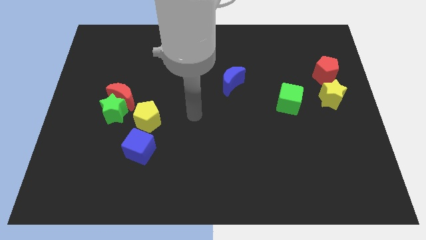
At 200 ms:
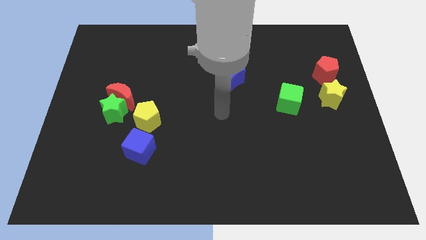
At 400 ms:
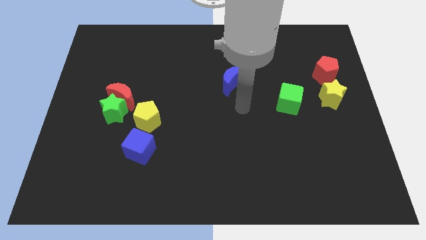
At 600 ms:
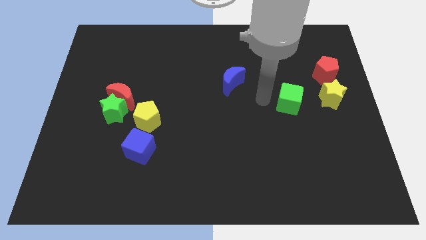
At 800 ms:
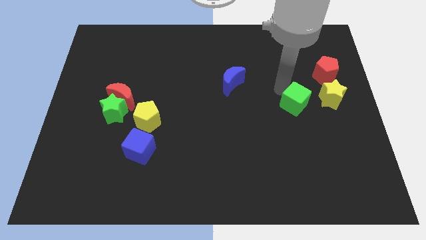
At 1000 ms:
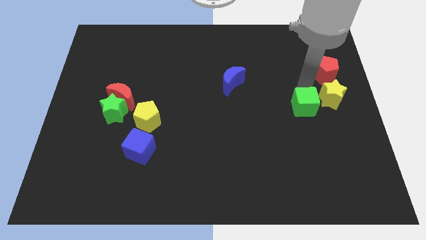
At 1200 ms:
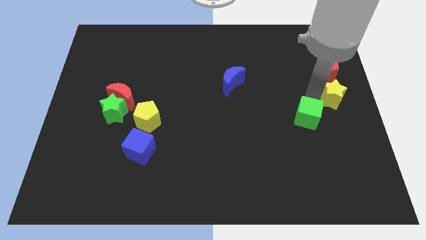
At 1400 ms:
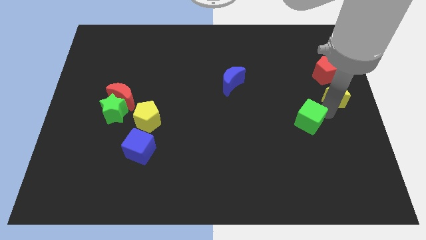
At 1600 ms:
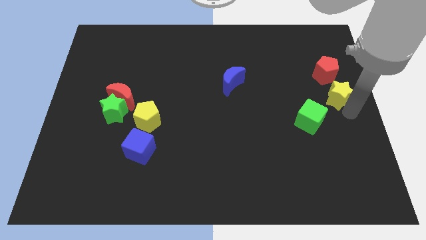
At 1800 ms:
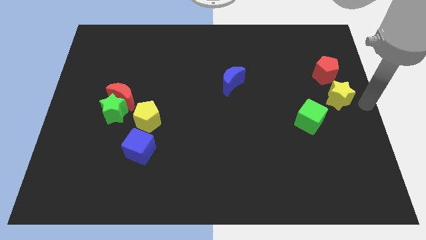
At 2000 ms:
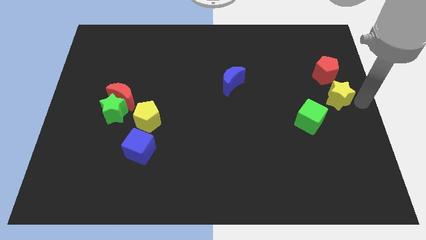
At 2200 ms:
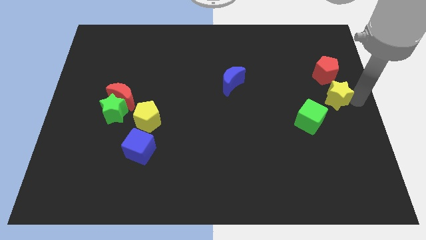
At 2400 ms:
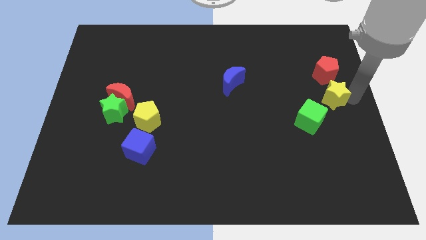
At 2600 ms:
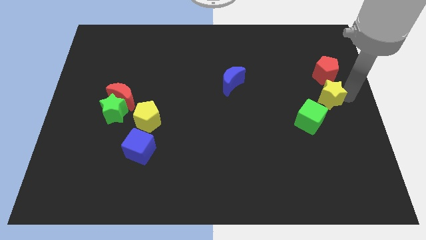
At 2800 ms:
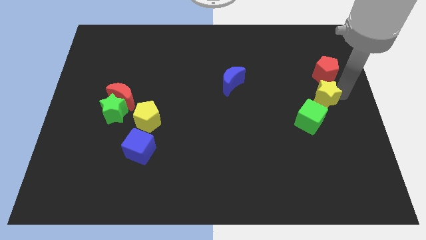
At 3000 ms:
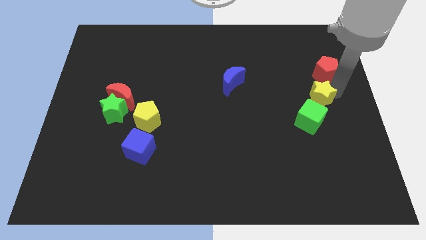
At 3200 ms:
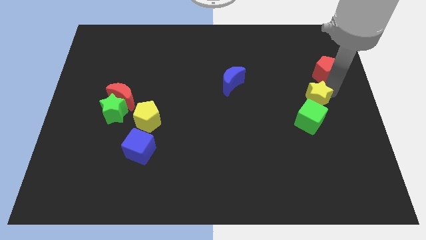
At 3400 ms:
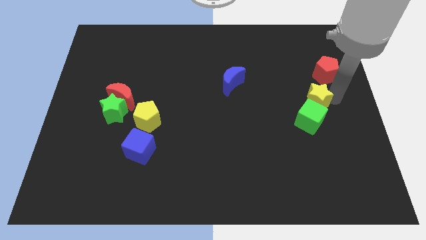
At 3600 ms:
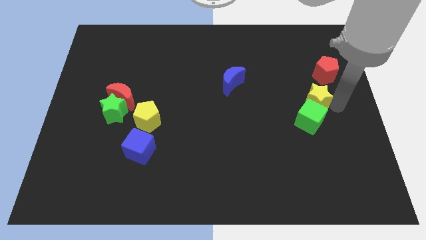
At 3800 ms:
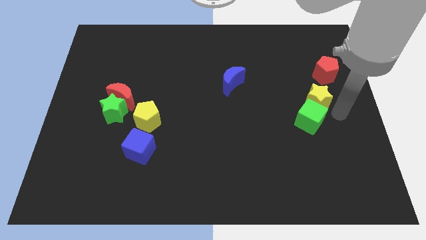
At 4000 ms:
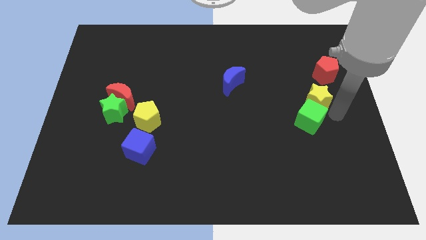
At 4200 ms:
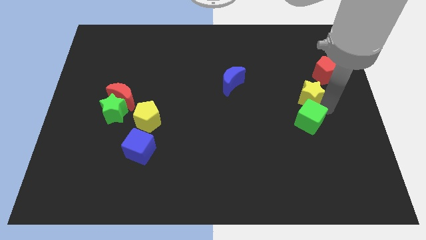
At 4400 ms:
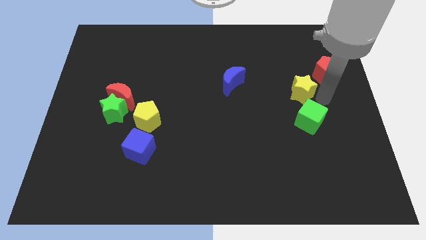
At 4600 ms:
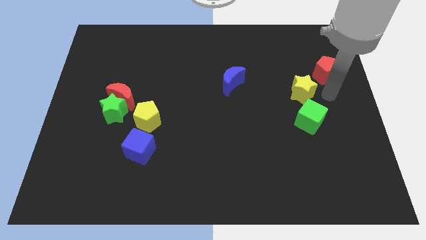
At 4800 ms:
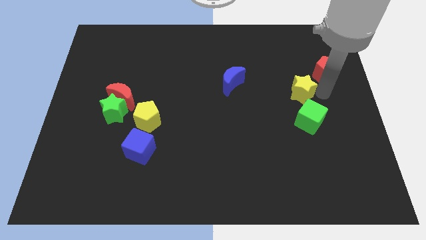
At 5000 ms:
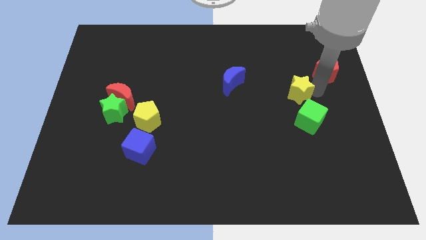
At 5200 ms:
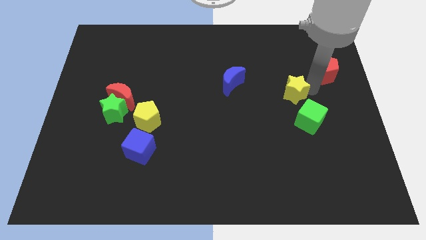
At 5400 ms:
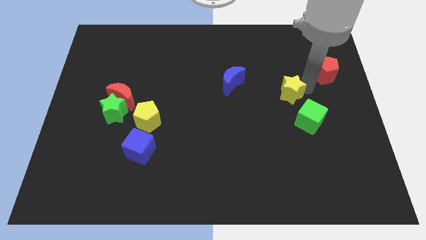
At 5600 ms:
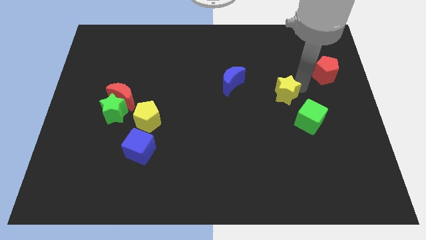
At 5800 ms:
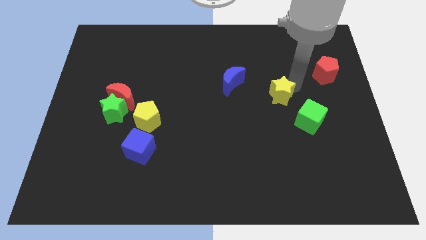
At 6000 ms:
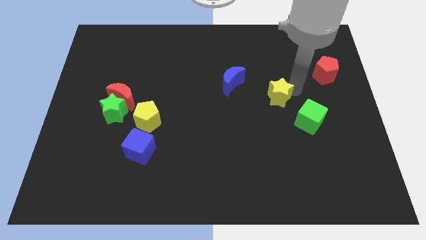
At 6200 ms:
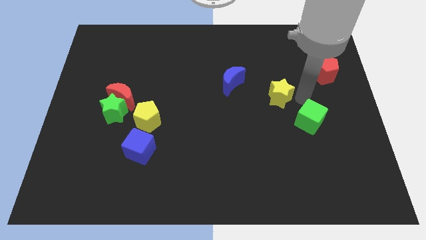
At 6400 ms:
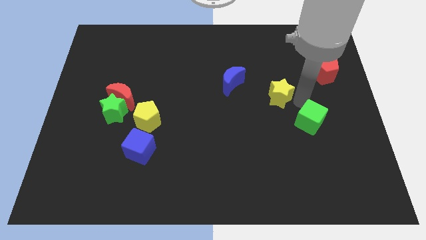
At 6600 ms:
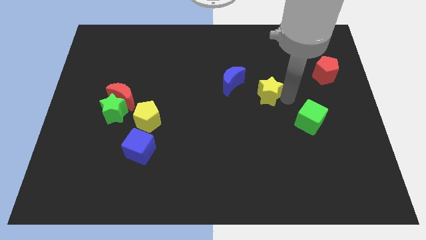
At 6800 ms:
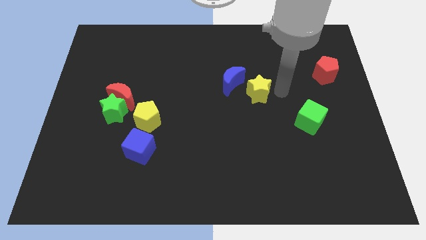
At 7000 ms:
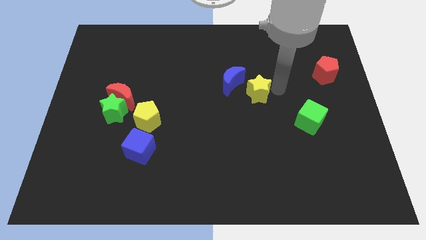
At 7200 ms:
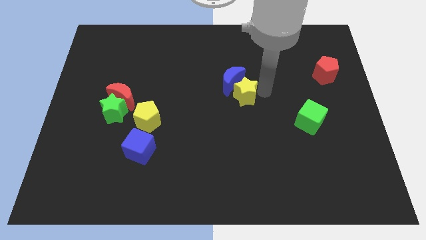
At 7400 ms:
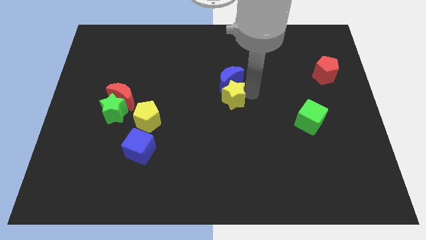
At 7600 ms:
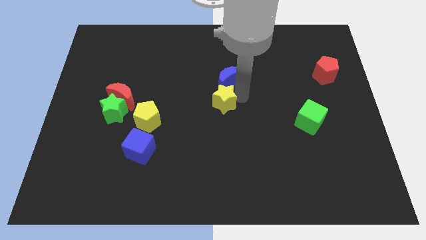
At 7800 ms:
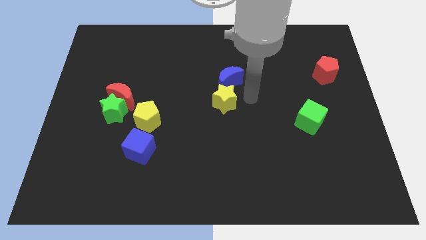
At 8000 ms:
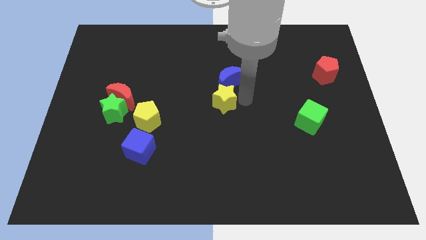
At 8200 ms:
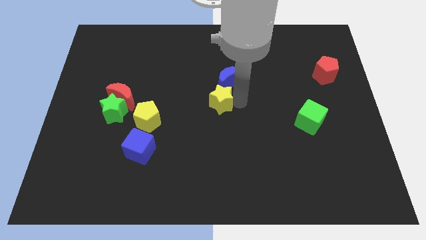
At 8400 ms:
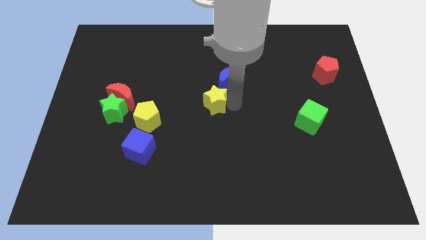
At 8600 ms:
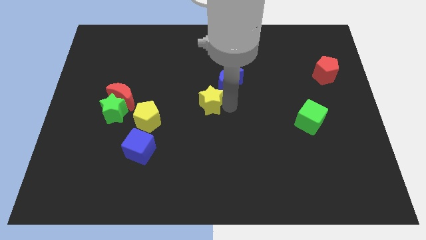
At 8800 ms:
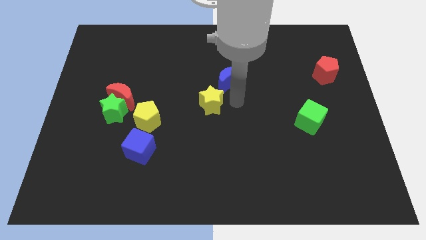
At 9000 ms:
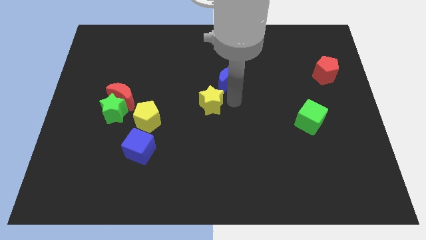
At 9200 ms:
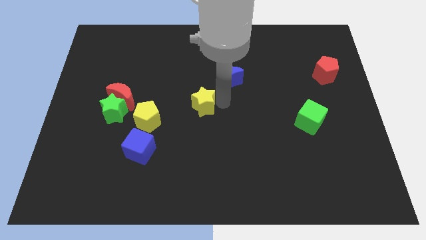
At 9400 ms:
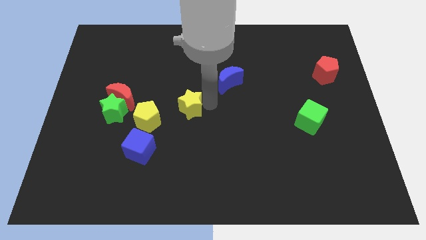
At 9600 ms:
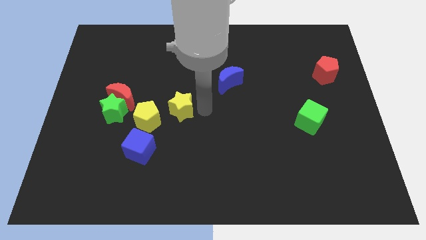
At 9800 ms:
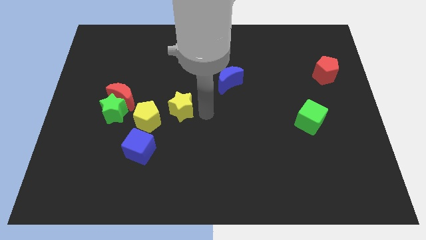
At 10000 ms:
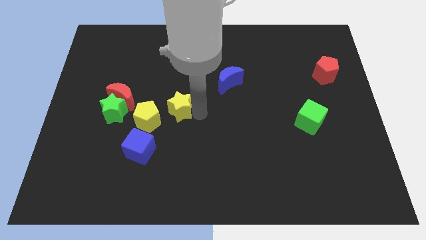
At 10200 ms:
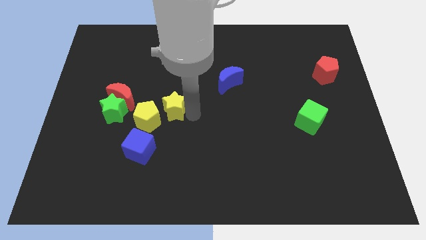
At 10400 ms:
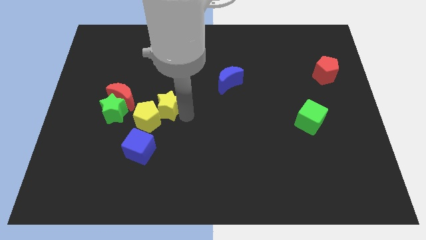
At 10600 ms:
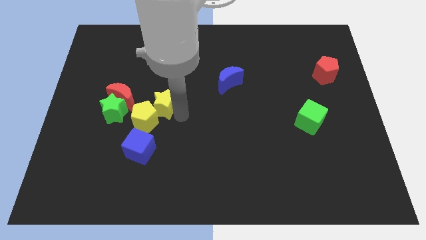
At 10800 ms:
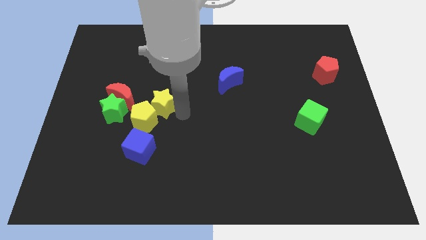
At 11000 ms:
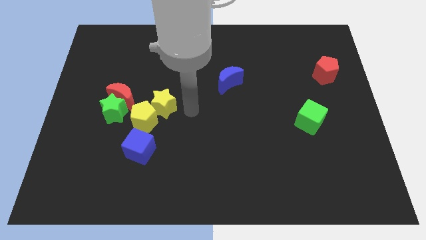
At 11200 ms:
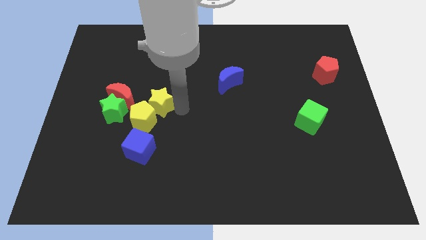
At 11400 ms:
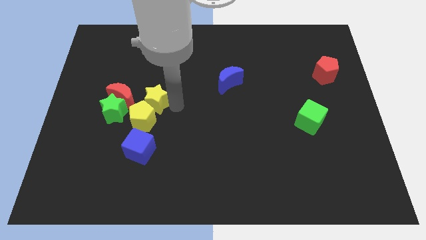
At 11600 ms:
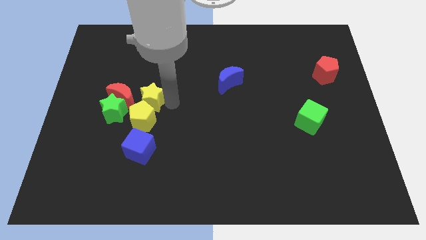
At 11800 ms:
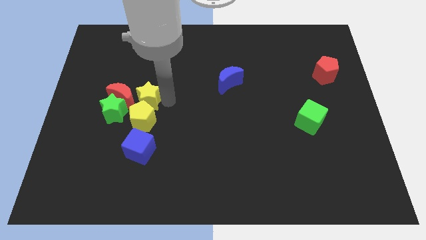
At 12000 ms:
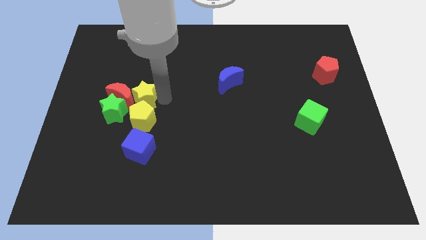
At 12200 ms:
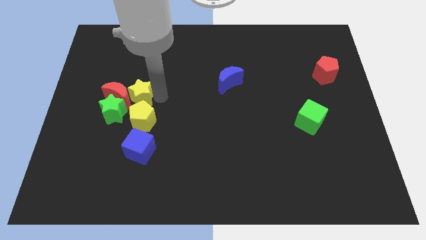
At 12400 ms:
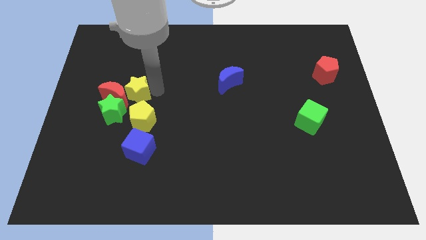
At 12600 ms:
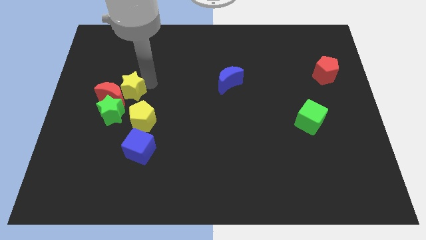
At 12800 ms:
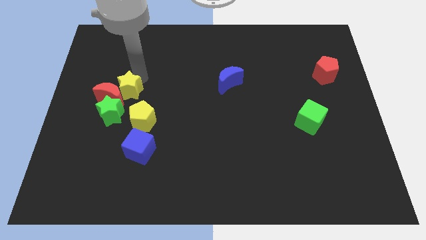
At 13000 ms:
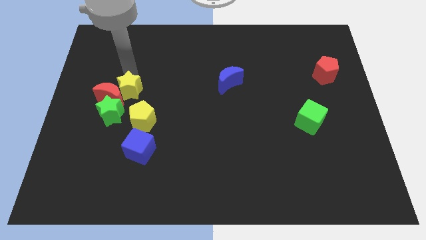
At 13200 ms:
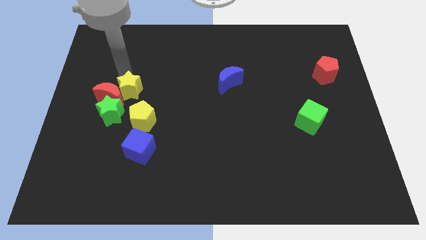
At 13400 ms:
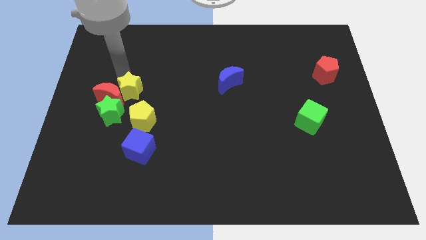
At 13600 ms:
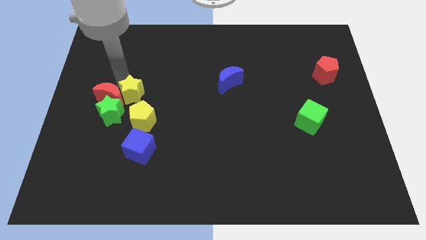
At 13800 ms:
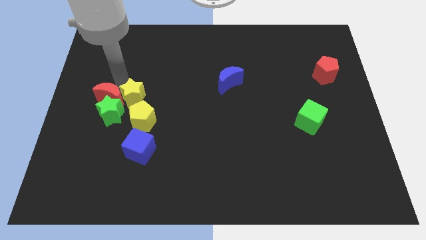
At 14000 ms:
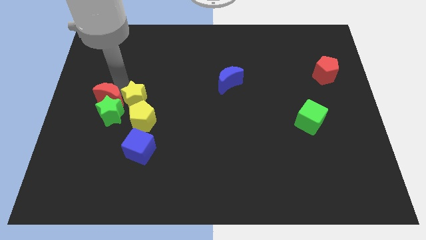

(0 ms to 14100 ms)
put the yellow star towards the green star

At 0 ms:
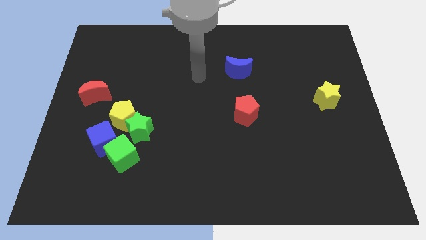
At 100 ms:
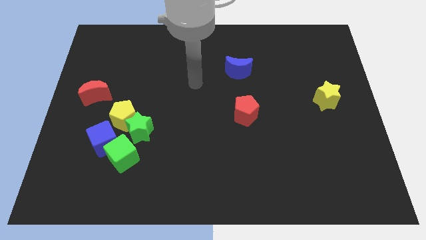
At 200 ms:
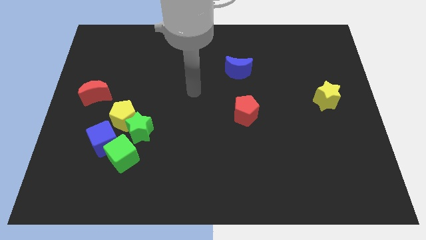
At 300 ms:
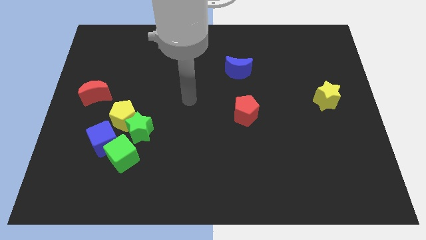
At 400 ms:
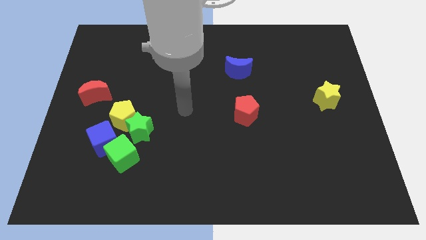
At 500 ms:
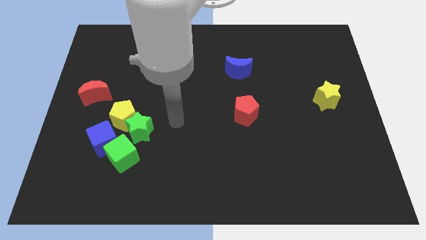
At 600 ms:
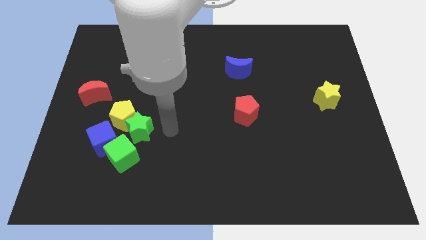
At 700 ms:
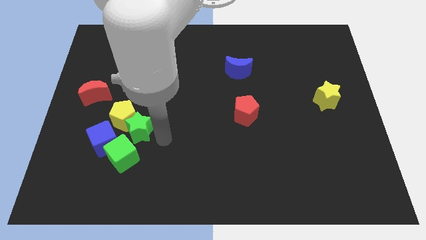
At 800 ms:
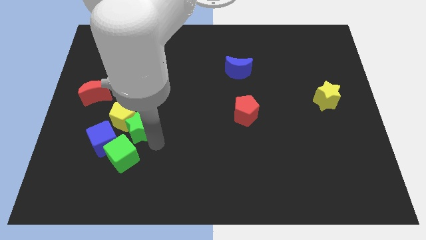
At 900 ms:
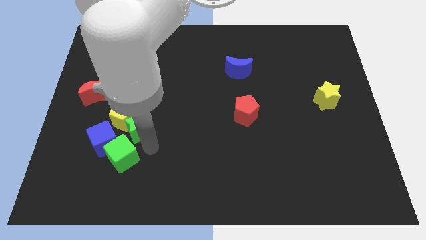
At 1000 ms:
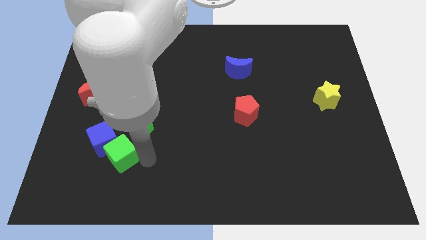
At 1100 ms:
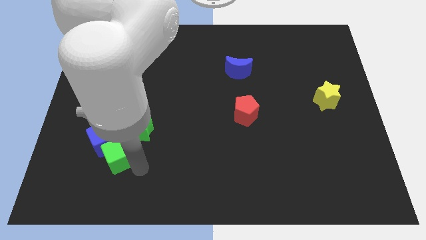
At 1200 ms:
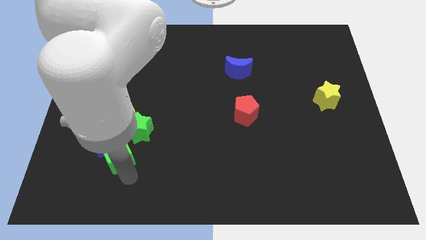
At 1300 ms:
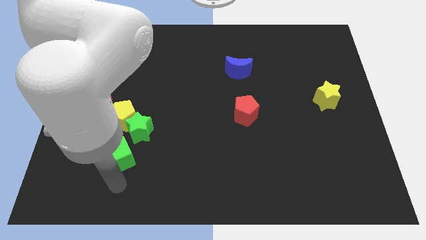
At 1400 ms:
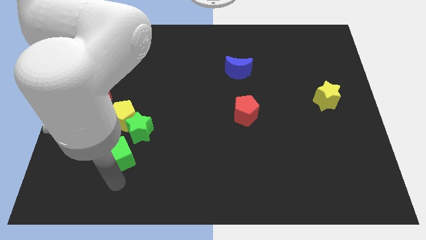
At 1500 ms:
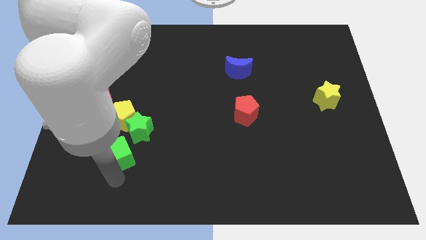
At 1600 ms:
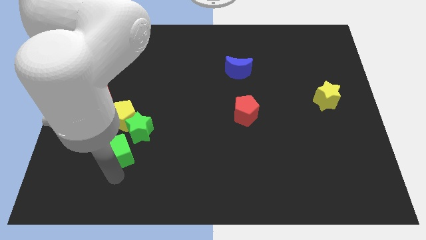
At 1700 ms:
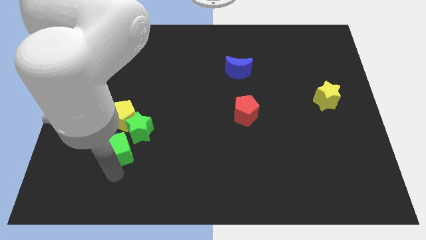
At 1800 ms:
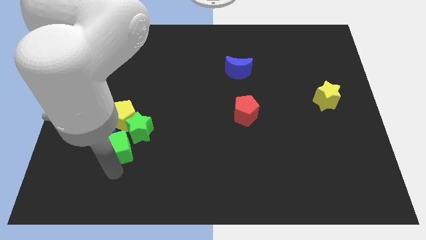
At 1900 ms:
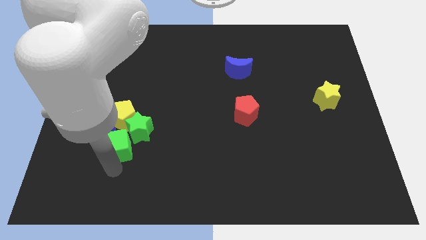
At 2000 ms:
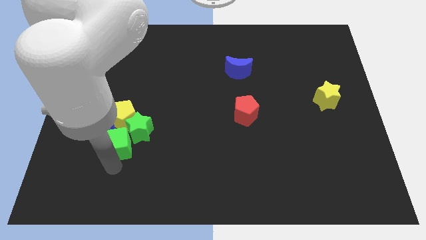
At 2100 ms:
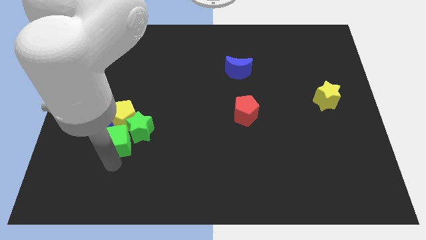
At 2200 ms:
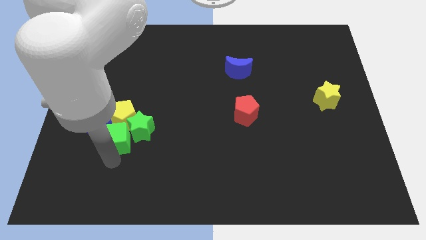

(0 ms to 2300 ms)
push the green cube towards the yellow pentagon
